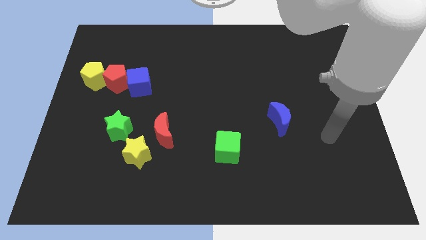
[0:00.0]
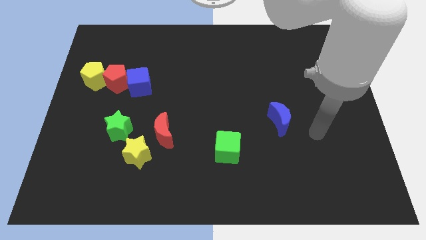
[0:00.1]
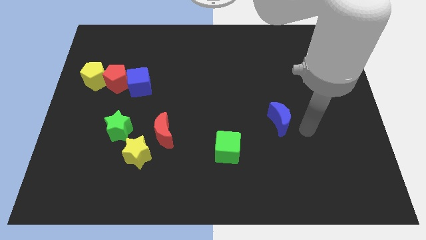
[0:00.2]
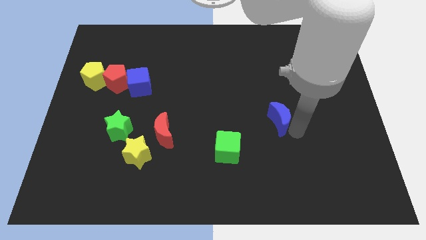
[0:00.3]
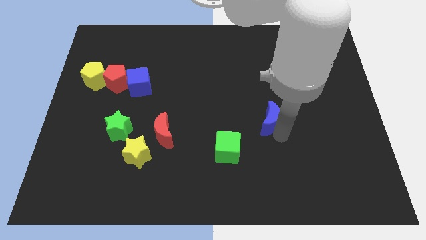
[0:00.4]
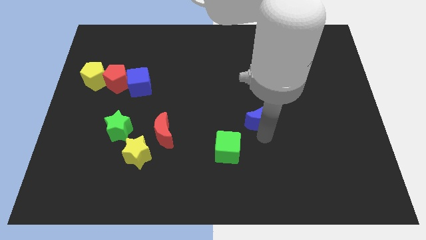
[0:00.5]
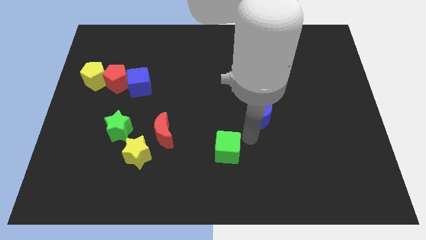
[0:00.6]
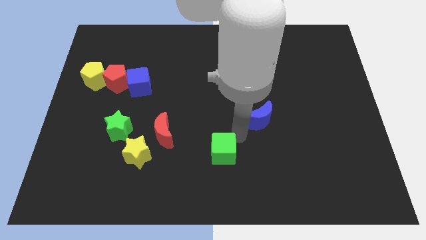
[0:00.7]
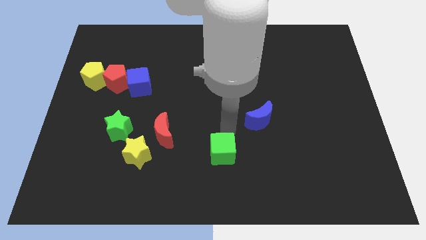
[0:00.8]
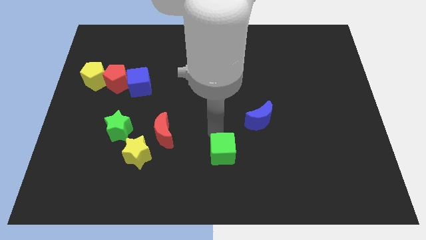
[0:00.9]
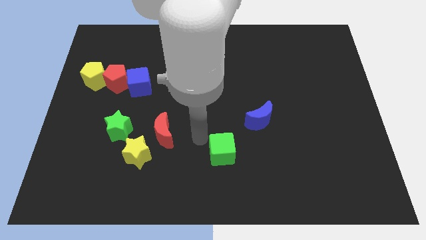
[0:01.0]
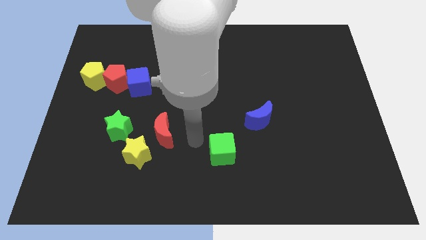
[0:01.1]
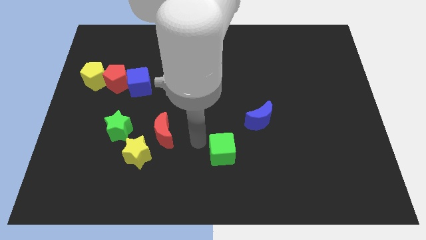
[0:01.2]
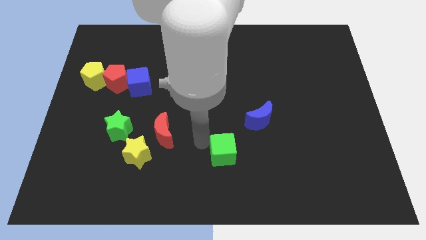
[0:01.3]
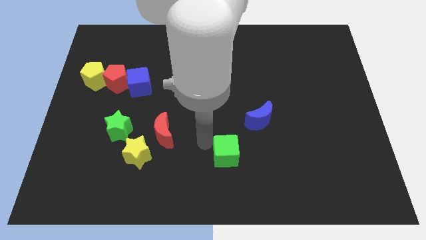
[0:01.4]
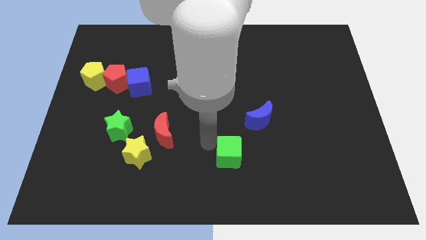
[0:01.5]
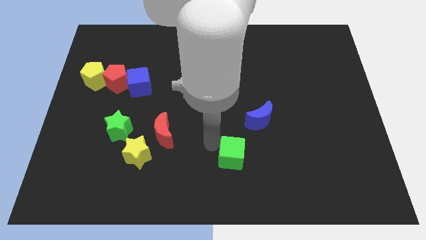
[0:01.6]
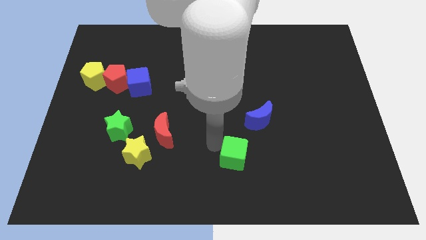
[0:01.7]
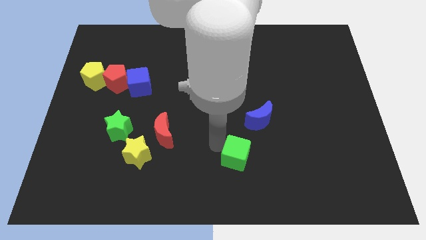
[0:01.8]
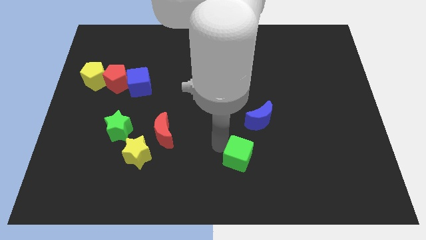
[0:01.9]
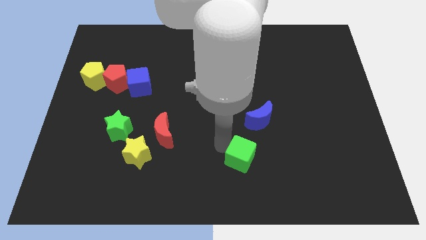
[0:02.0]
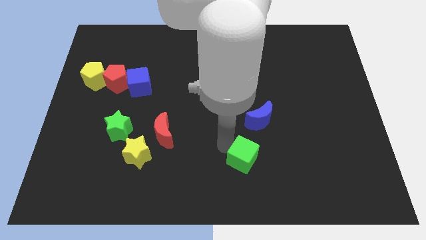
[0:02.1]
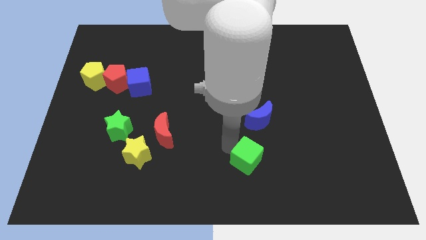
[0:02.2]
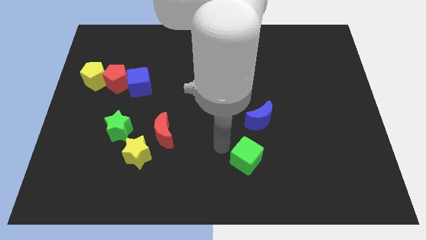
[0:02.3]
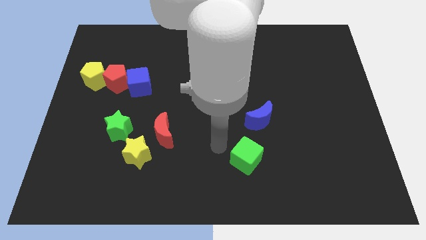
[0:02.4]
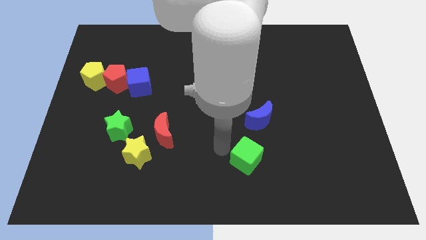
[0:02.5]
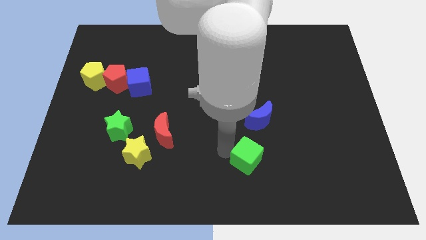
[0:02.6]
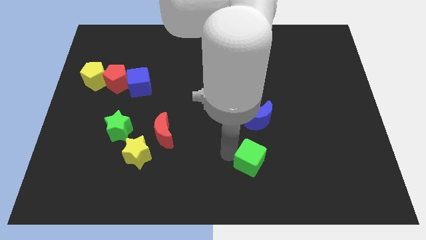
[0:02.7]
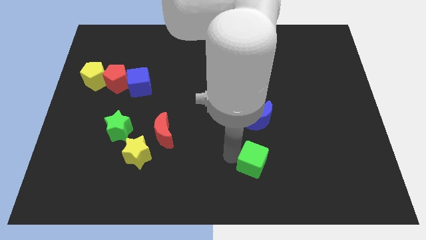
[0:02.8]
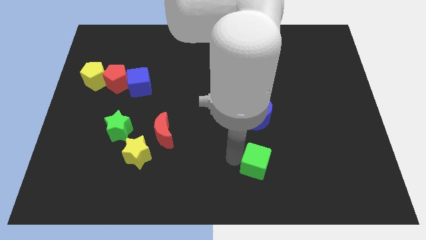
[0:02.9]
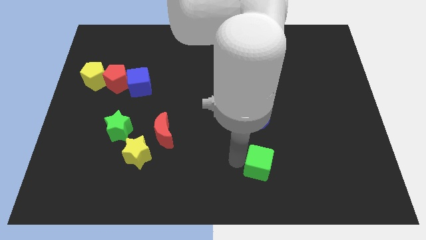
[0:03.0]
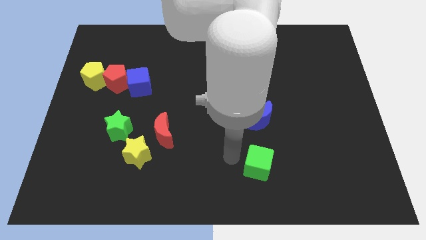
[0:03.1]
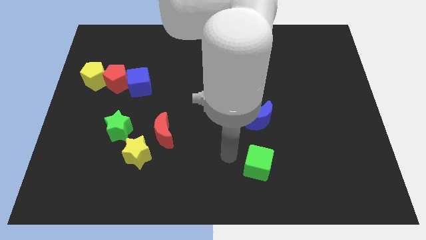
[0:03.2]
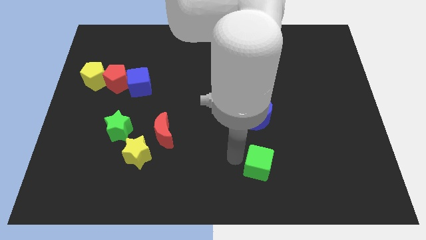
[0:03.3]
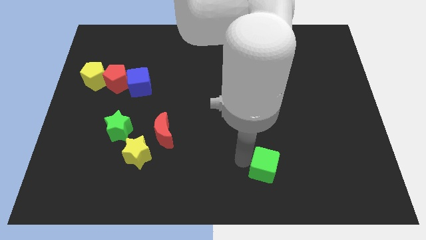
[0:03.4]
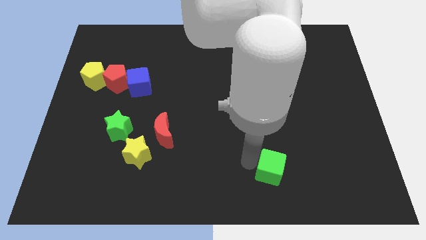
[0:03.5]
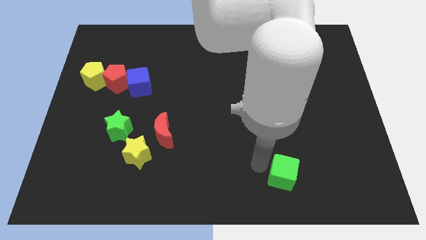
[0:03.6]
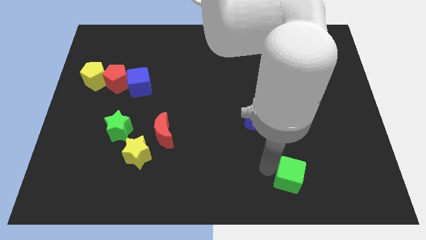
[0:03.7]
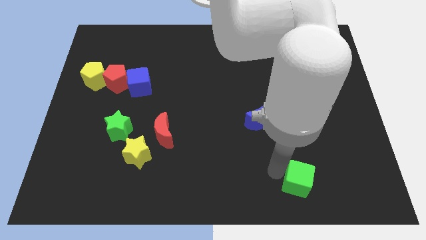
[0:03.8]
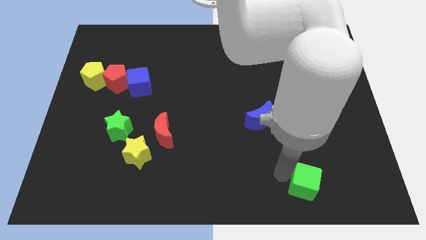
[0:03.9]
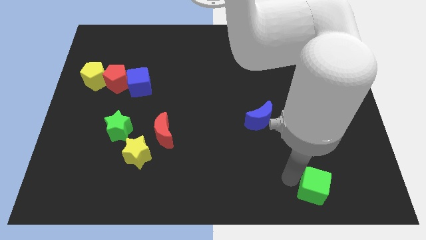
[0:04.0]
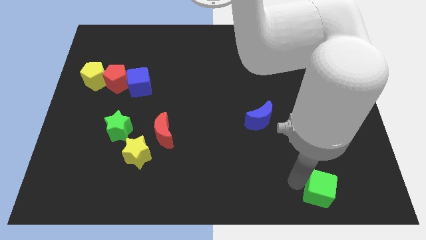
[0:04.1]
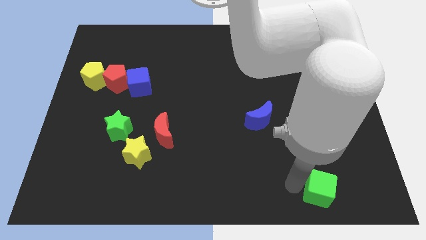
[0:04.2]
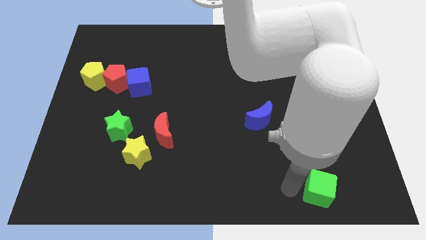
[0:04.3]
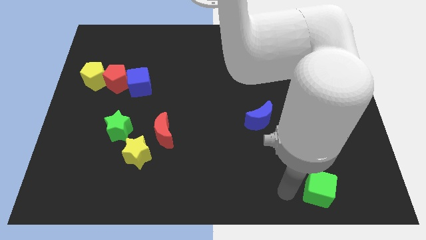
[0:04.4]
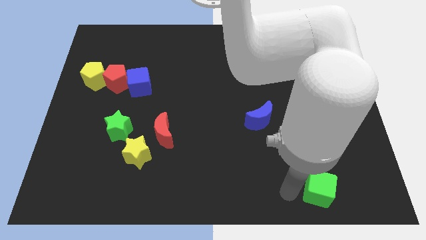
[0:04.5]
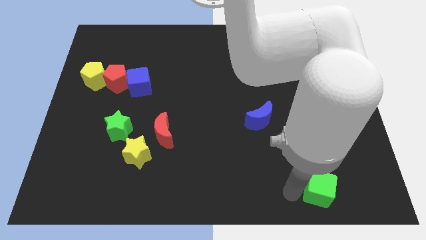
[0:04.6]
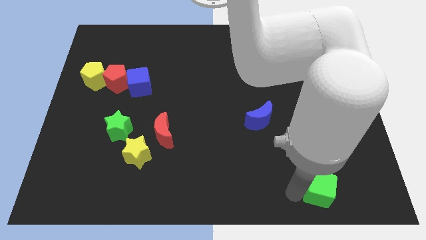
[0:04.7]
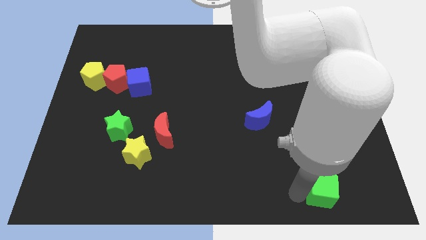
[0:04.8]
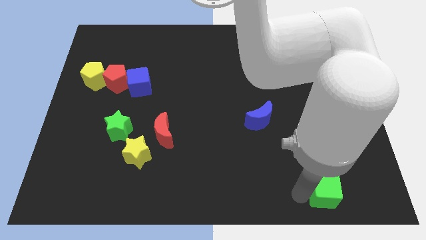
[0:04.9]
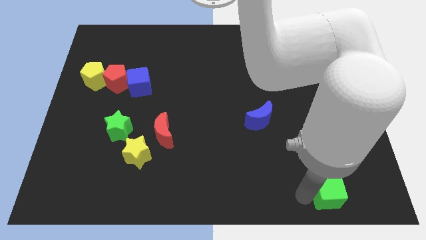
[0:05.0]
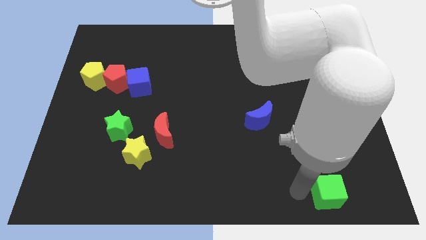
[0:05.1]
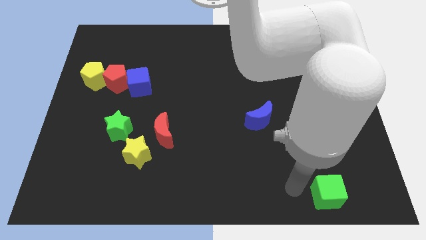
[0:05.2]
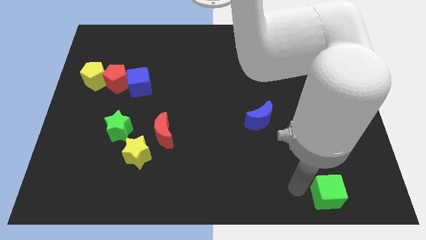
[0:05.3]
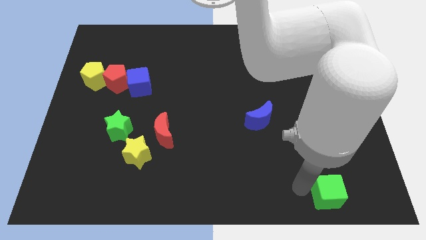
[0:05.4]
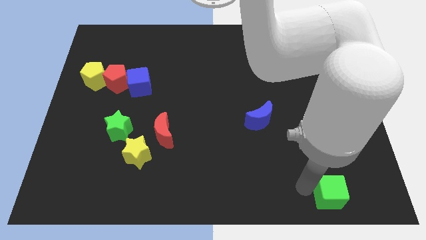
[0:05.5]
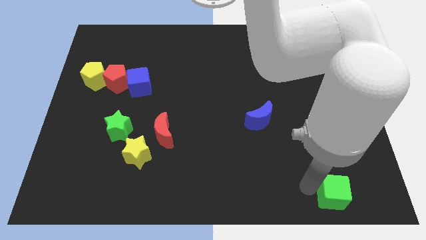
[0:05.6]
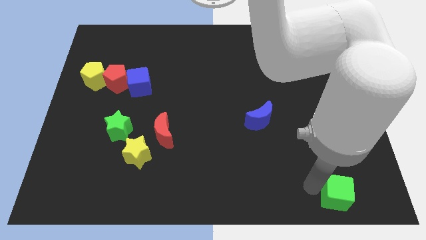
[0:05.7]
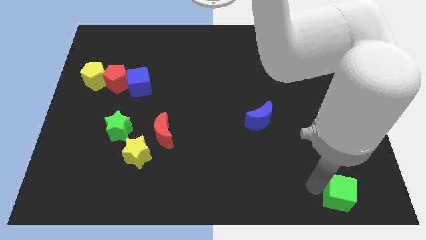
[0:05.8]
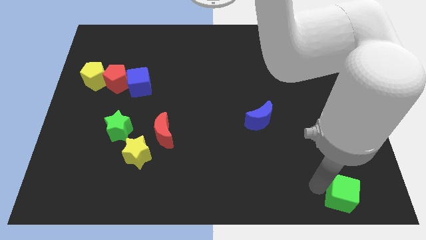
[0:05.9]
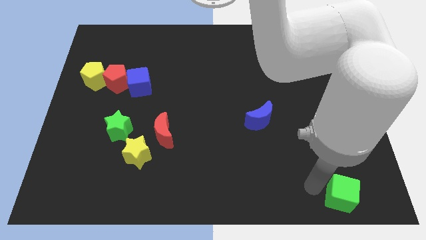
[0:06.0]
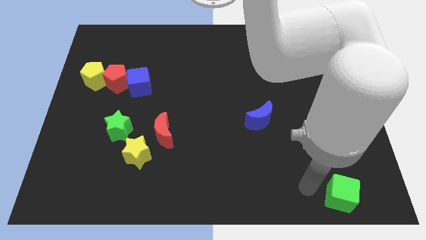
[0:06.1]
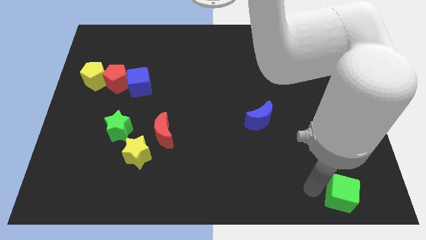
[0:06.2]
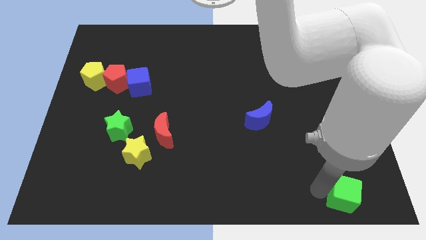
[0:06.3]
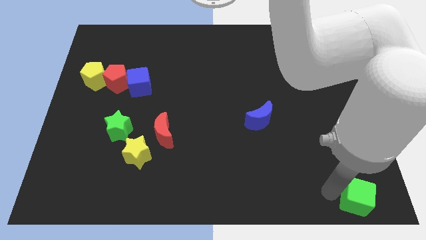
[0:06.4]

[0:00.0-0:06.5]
move the green cube to the bottom right
